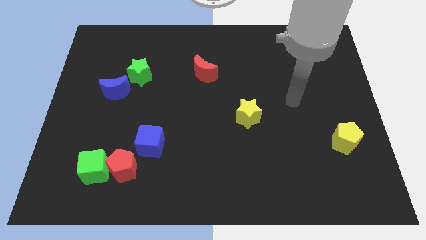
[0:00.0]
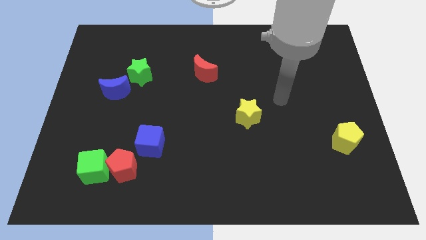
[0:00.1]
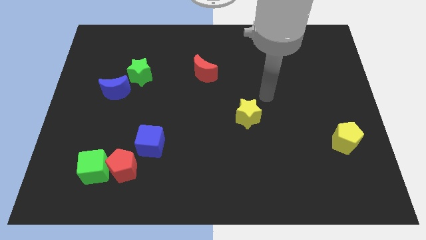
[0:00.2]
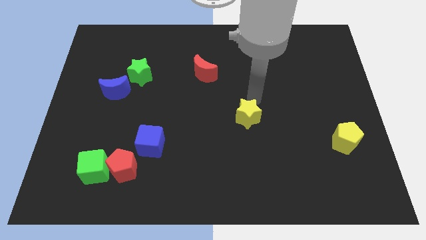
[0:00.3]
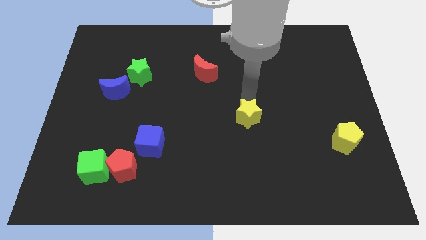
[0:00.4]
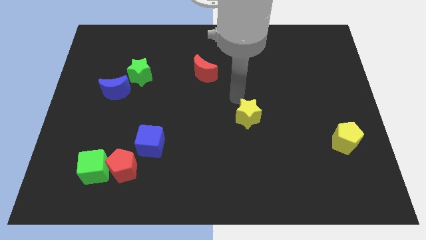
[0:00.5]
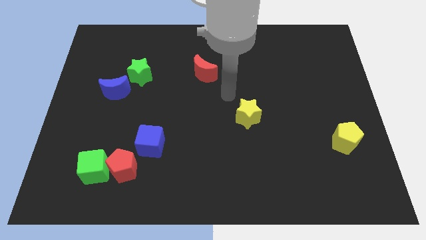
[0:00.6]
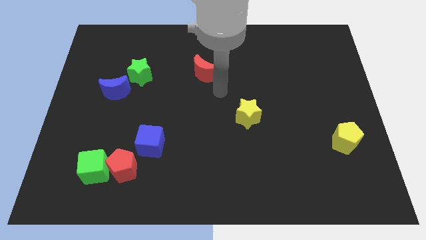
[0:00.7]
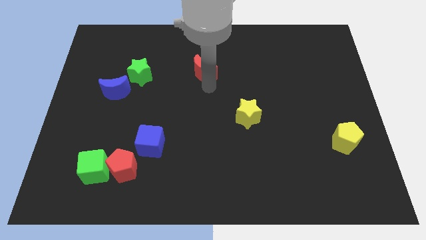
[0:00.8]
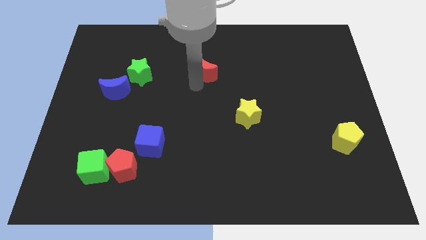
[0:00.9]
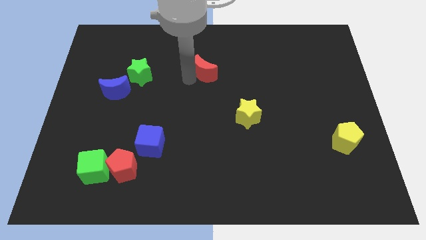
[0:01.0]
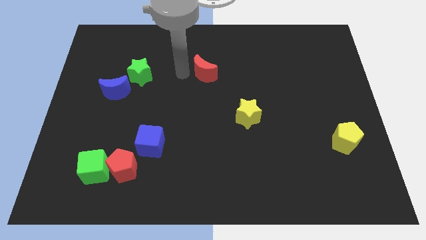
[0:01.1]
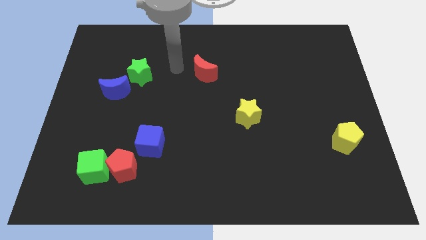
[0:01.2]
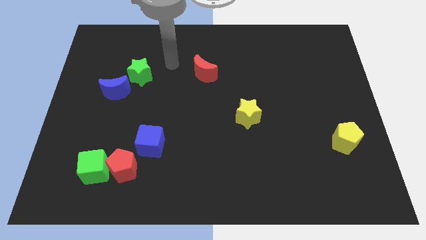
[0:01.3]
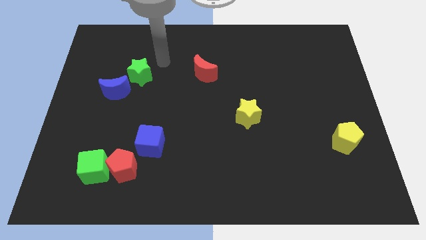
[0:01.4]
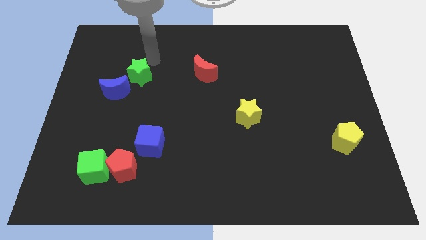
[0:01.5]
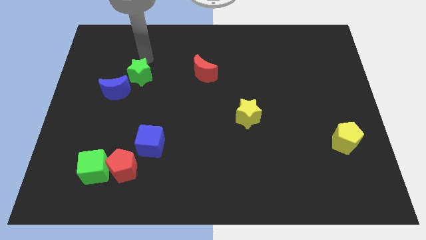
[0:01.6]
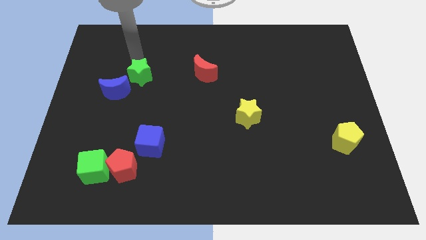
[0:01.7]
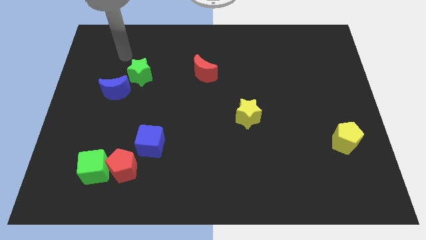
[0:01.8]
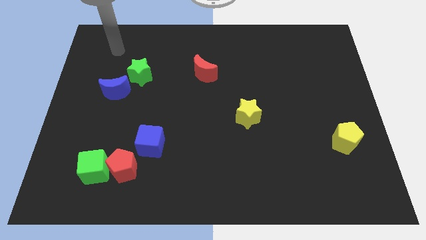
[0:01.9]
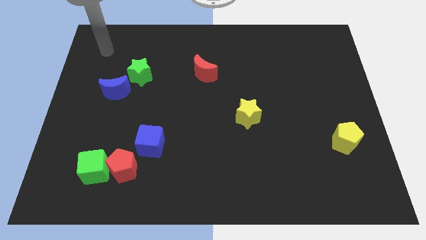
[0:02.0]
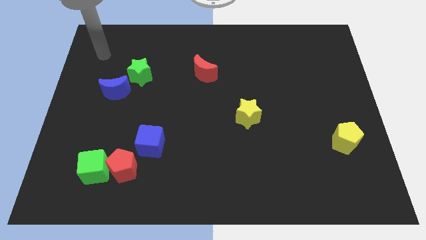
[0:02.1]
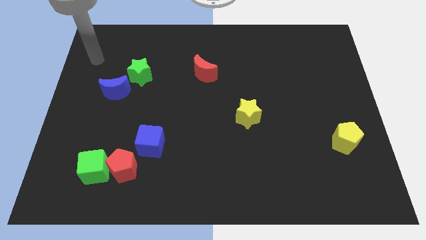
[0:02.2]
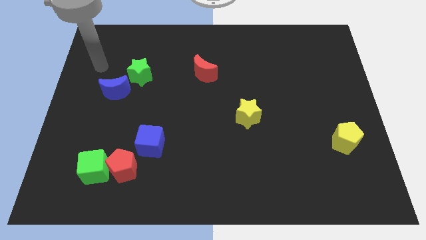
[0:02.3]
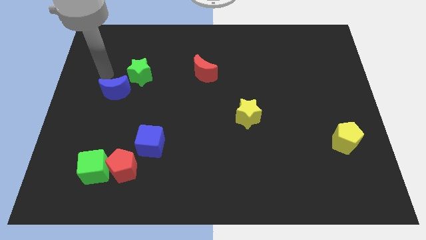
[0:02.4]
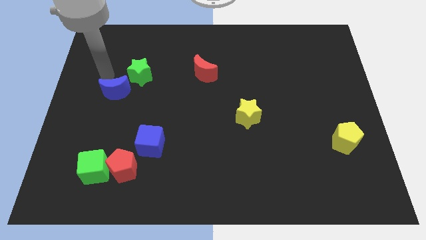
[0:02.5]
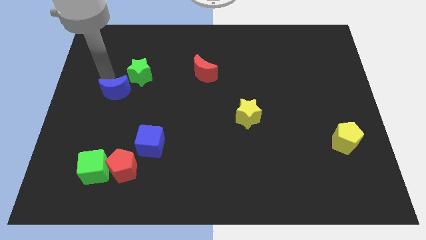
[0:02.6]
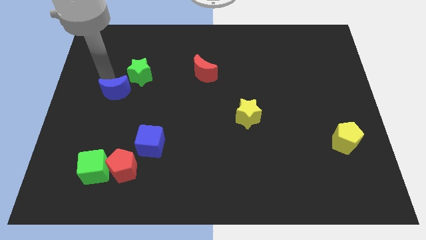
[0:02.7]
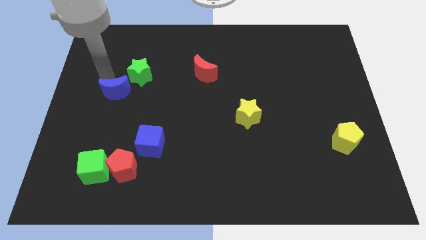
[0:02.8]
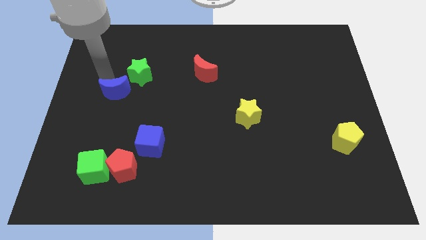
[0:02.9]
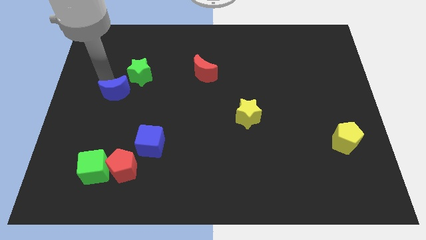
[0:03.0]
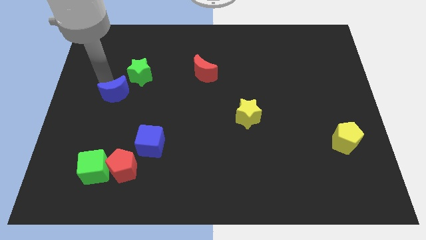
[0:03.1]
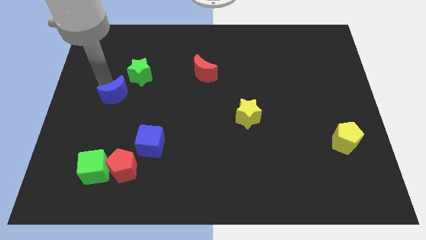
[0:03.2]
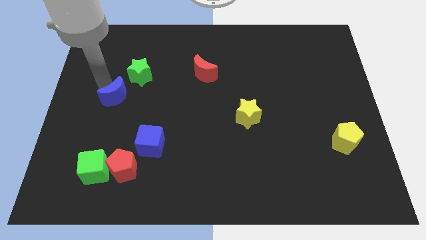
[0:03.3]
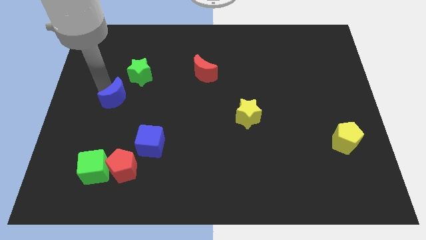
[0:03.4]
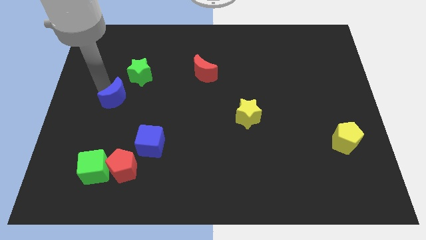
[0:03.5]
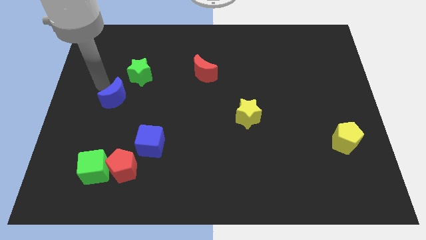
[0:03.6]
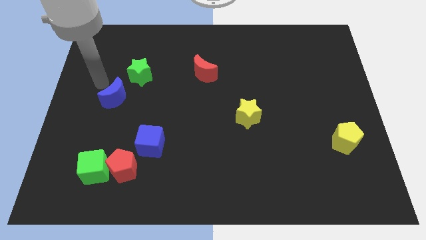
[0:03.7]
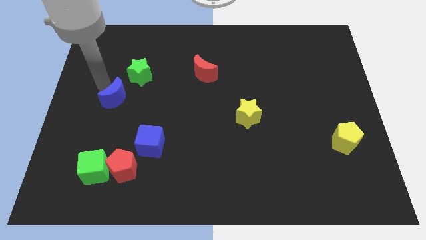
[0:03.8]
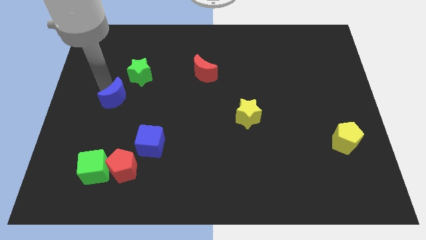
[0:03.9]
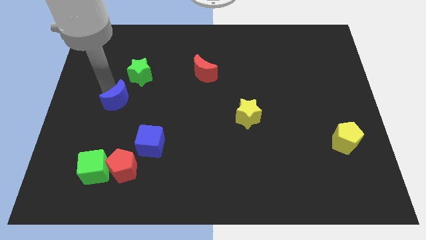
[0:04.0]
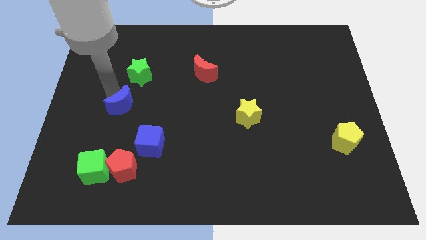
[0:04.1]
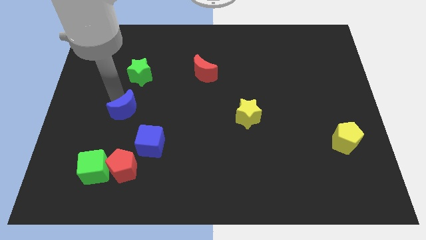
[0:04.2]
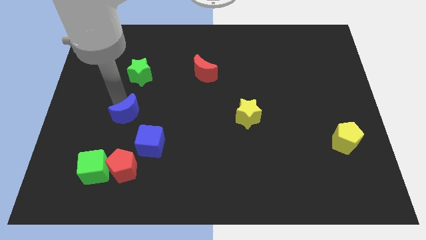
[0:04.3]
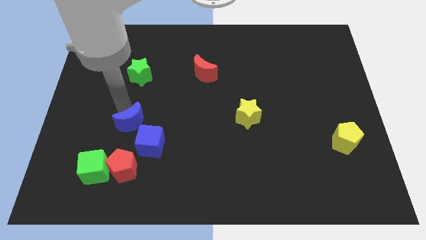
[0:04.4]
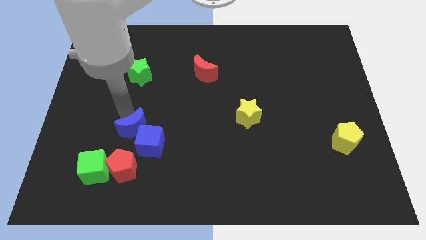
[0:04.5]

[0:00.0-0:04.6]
move the blue moon close to the blue cube

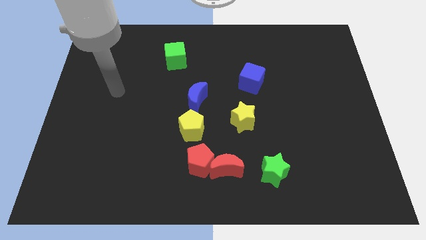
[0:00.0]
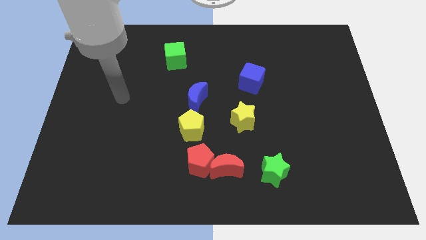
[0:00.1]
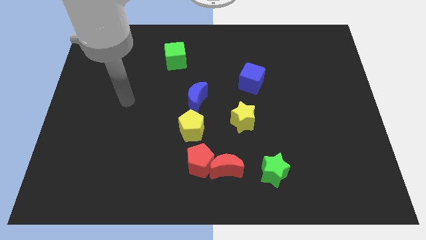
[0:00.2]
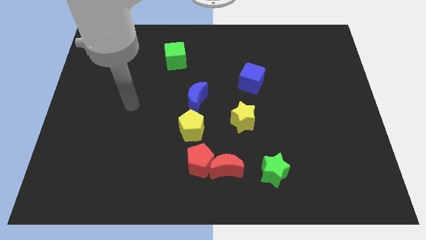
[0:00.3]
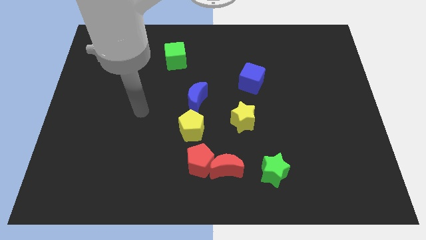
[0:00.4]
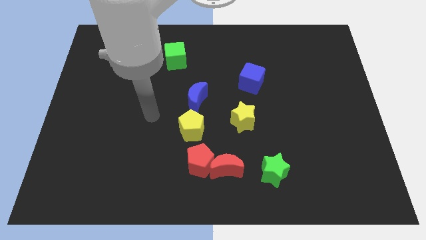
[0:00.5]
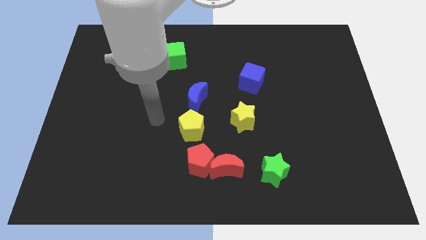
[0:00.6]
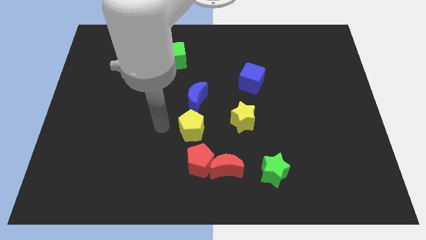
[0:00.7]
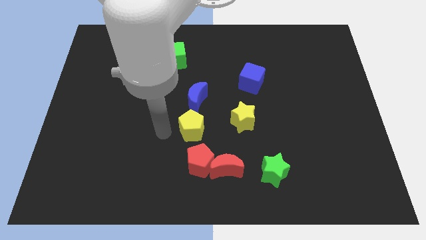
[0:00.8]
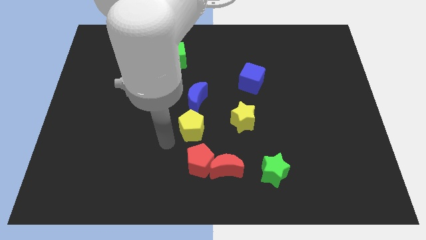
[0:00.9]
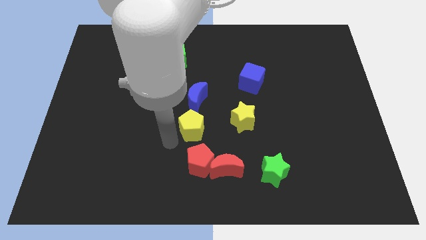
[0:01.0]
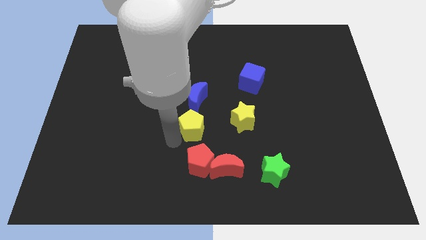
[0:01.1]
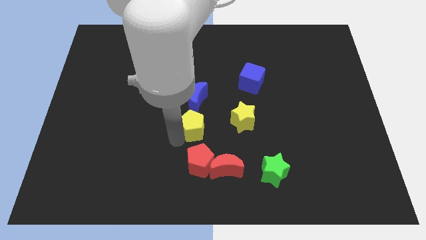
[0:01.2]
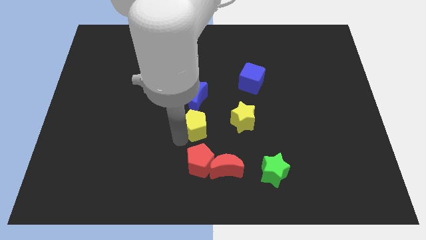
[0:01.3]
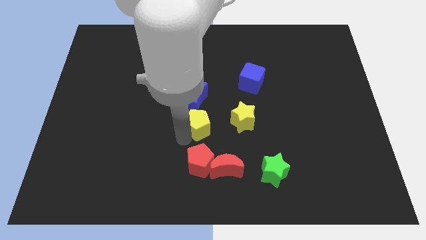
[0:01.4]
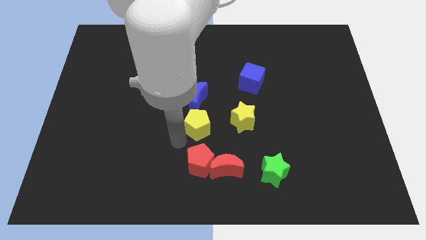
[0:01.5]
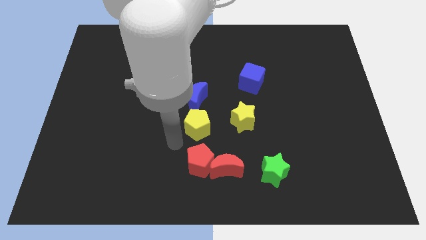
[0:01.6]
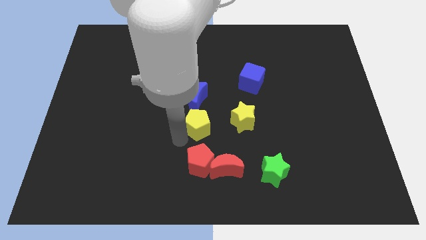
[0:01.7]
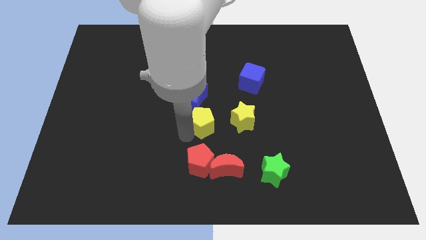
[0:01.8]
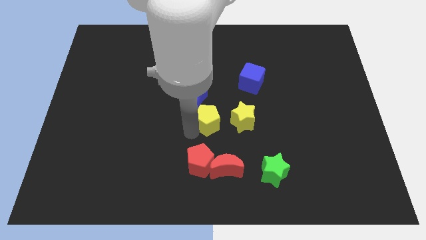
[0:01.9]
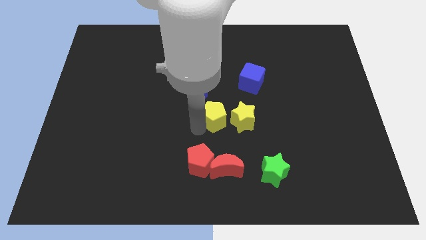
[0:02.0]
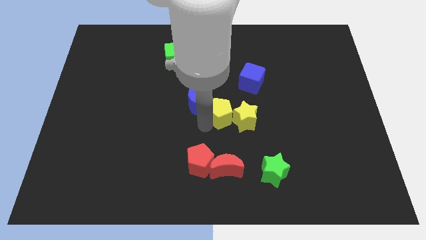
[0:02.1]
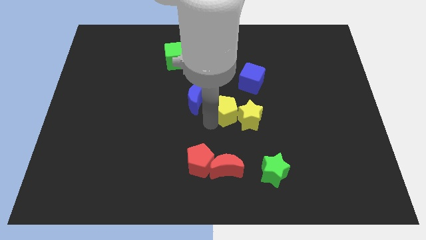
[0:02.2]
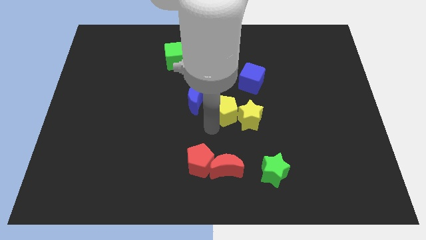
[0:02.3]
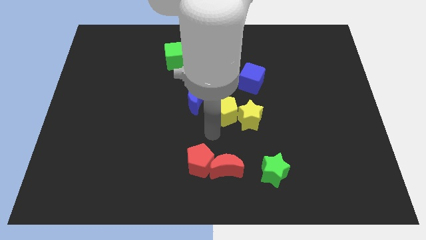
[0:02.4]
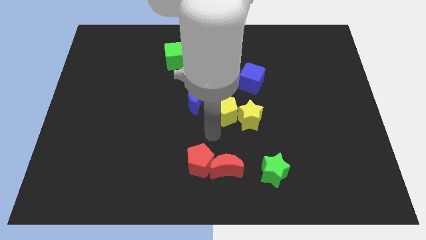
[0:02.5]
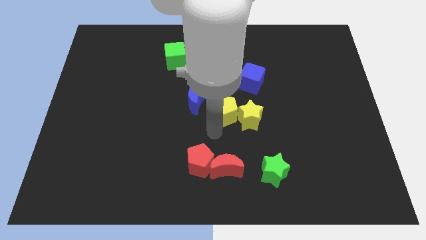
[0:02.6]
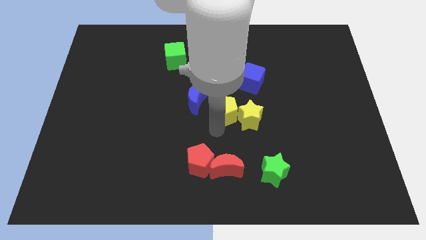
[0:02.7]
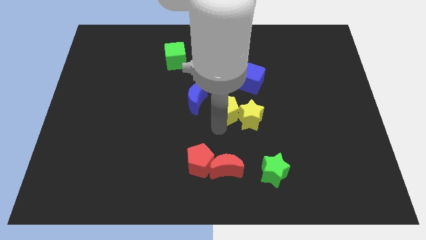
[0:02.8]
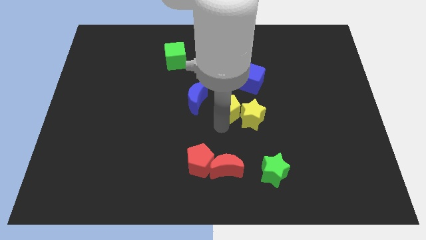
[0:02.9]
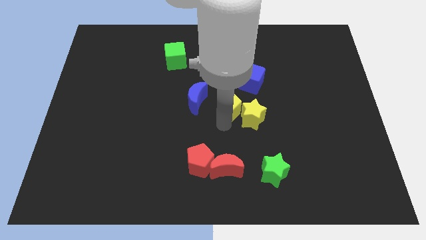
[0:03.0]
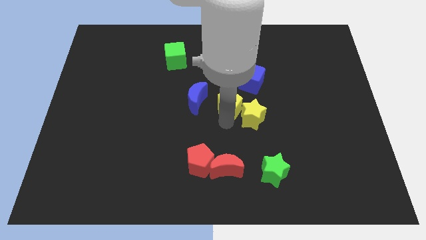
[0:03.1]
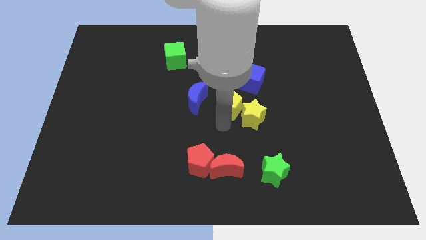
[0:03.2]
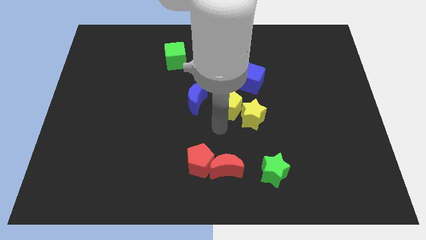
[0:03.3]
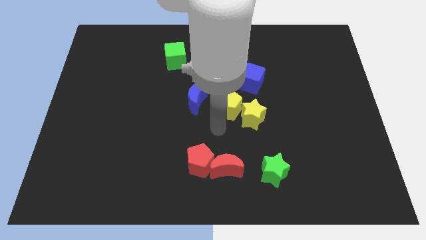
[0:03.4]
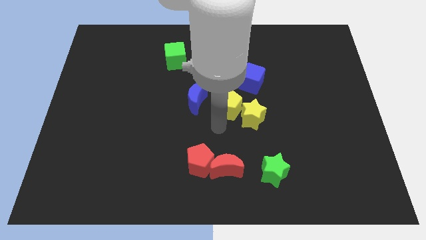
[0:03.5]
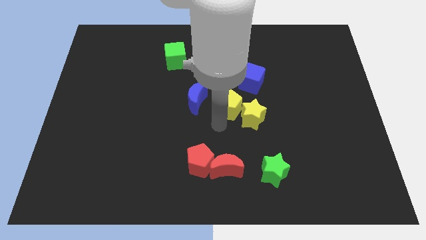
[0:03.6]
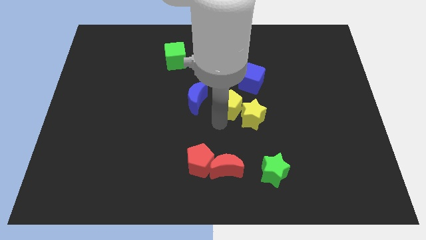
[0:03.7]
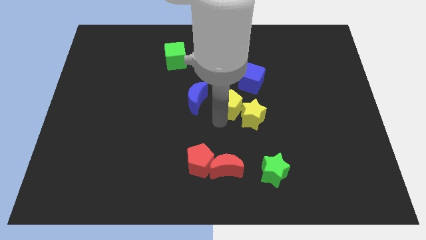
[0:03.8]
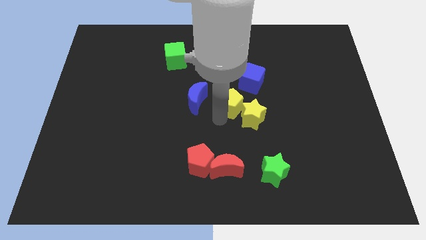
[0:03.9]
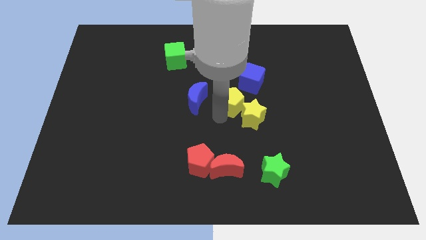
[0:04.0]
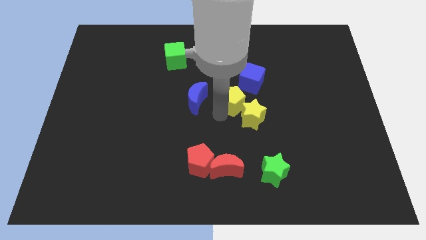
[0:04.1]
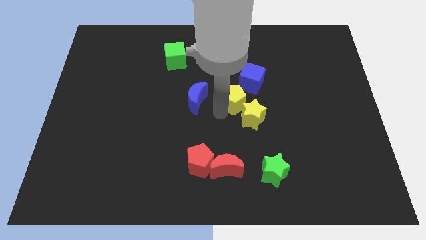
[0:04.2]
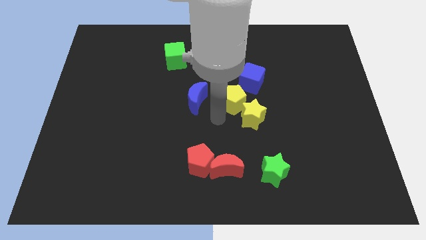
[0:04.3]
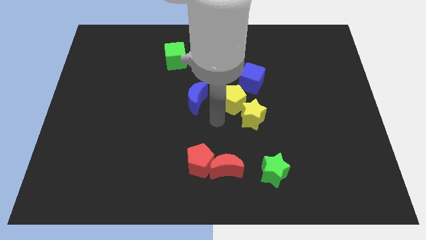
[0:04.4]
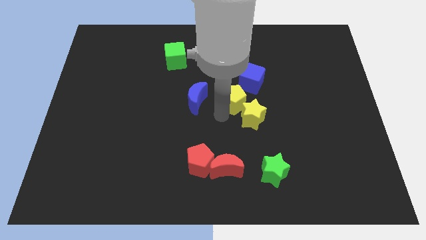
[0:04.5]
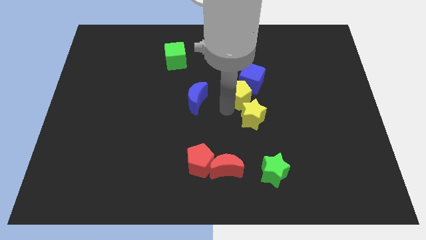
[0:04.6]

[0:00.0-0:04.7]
put the yellow pentagon close to the blue cube
